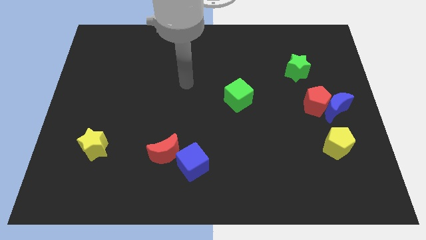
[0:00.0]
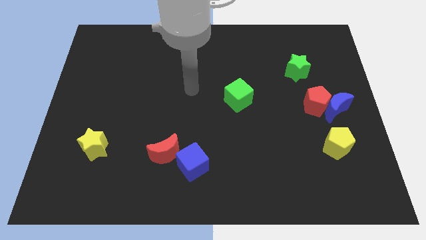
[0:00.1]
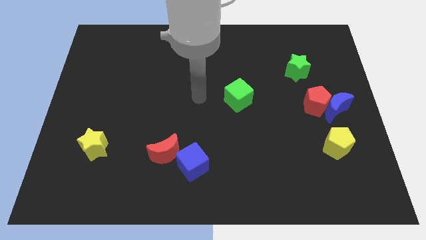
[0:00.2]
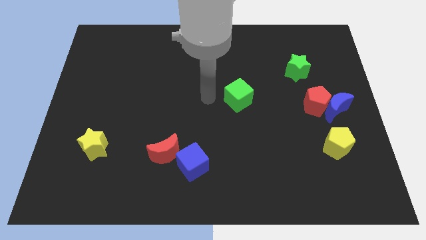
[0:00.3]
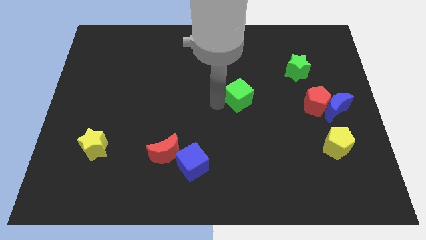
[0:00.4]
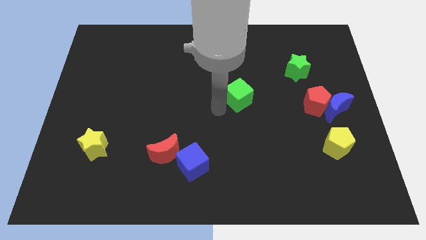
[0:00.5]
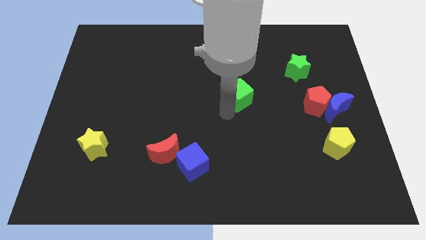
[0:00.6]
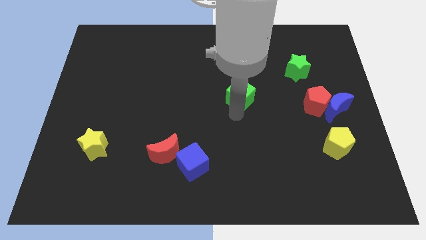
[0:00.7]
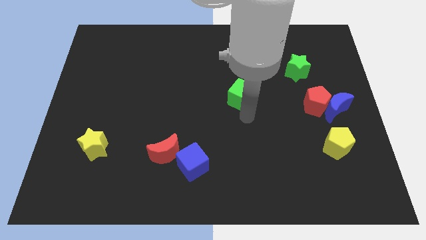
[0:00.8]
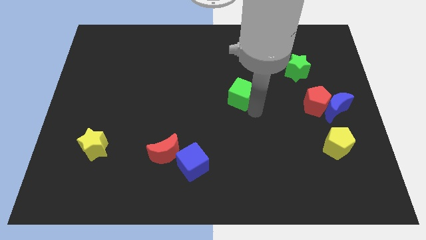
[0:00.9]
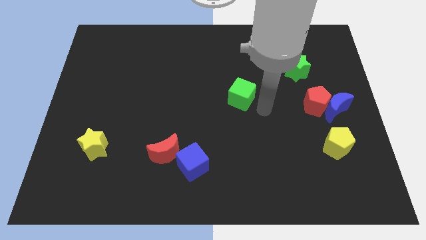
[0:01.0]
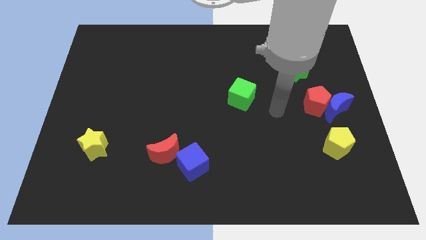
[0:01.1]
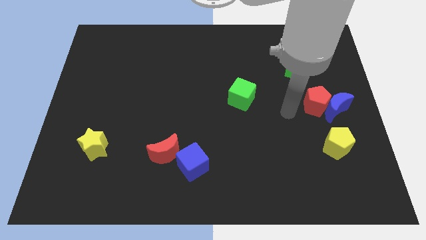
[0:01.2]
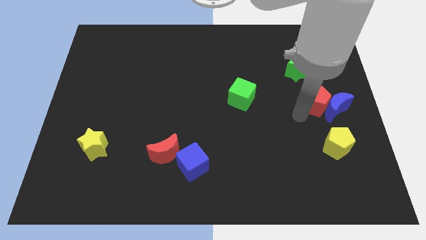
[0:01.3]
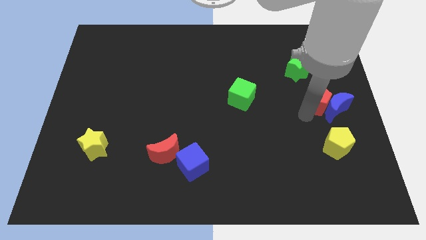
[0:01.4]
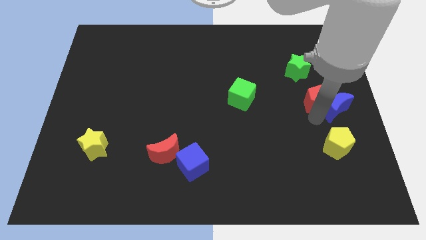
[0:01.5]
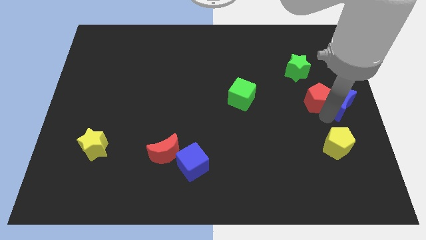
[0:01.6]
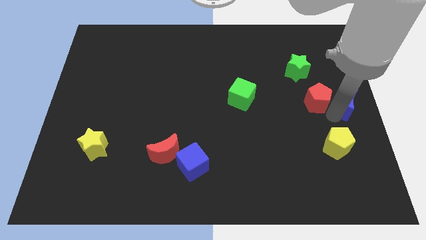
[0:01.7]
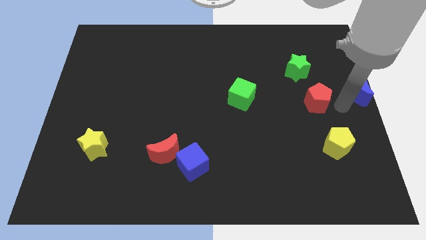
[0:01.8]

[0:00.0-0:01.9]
pull the red pentagon apart from the blue moon

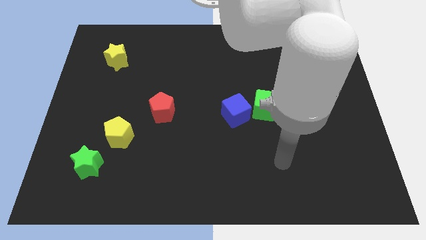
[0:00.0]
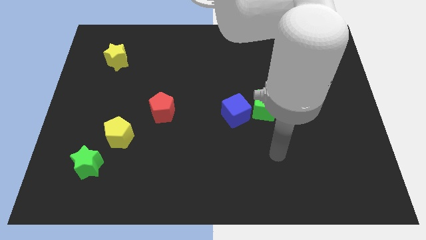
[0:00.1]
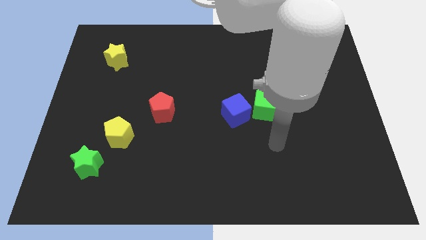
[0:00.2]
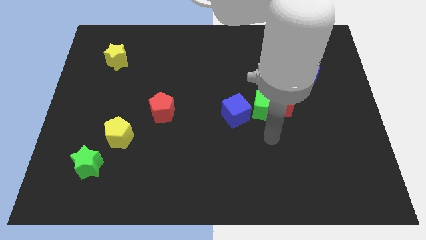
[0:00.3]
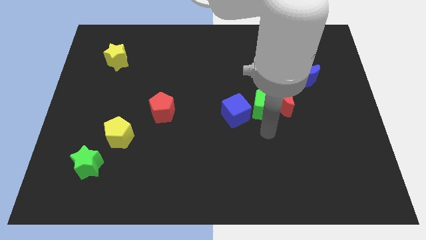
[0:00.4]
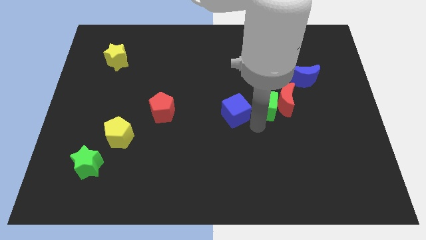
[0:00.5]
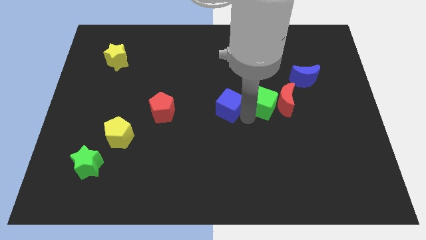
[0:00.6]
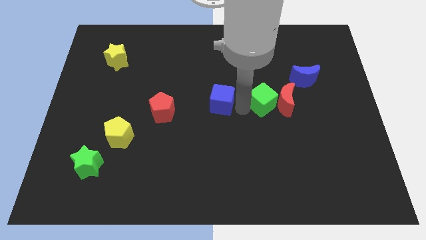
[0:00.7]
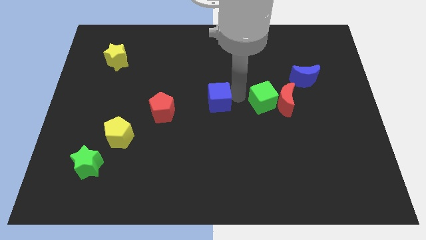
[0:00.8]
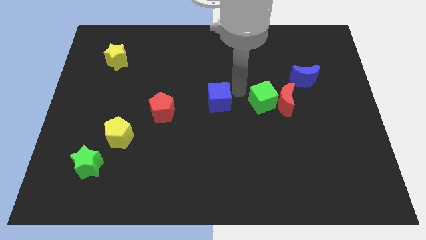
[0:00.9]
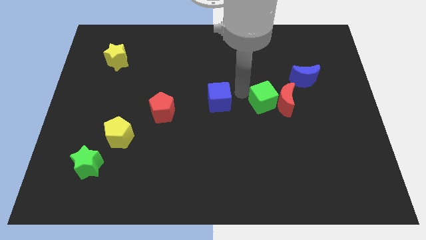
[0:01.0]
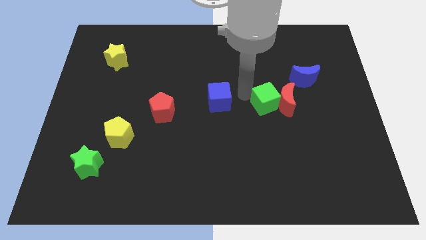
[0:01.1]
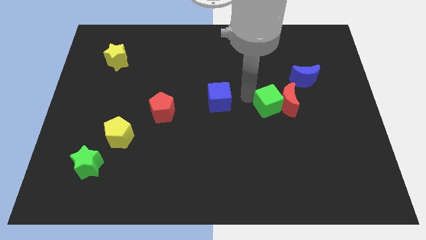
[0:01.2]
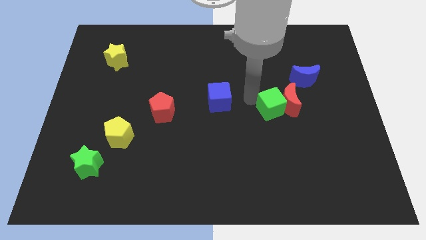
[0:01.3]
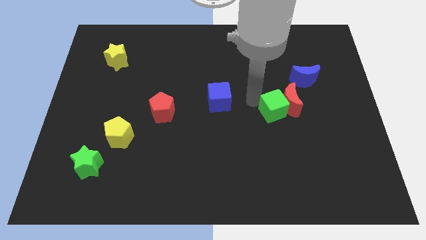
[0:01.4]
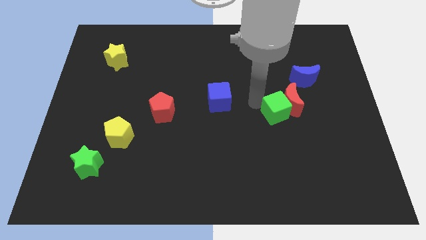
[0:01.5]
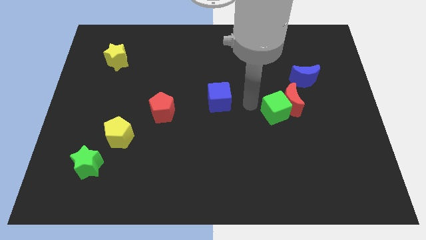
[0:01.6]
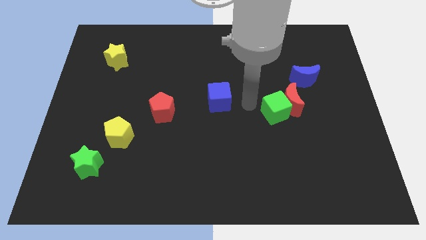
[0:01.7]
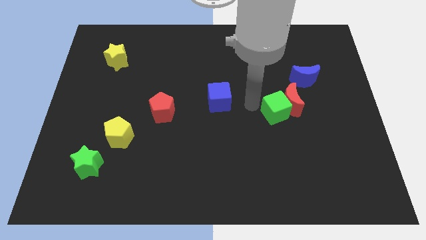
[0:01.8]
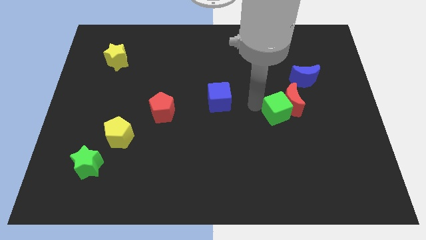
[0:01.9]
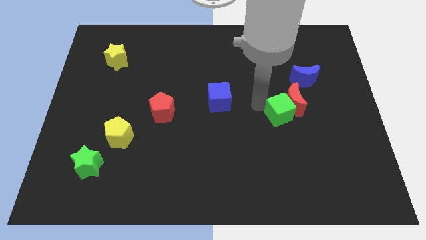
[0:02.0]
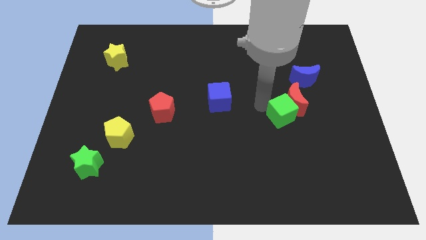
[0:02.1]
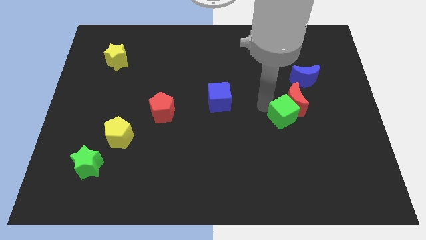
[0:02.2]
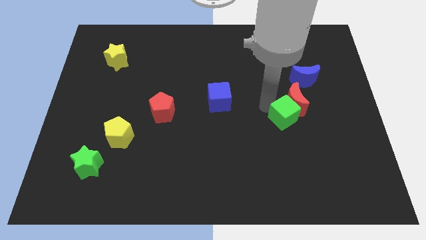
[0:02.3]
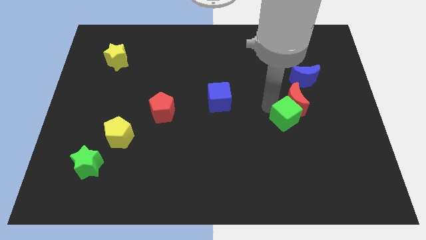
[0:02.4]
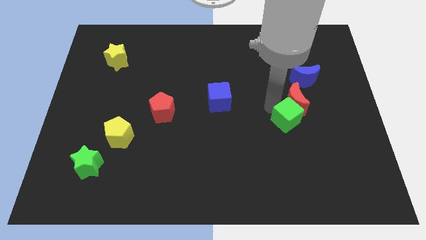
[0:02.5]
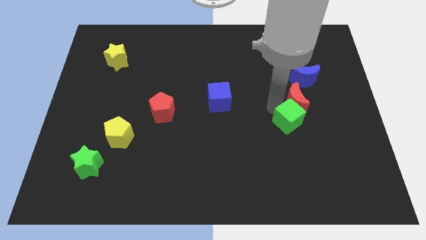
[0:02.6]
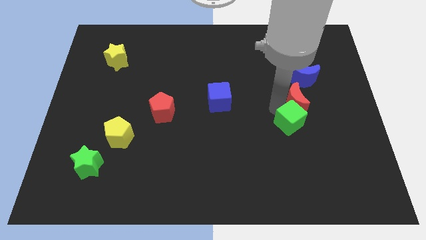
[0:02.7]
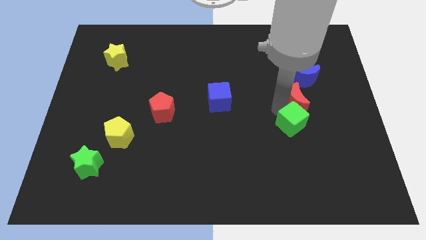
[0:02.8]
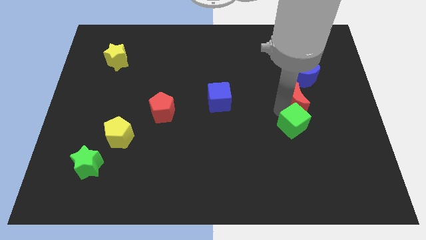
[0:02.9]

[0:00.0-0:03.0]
pull the green cube apart from the red moon and blue cube

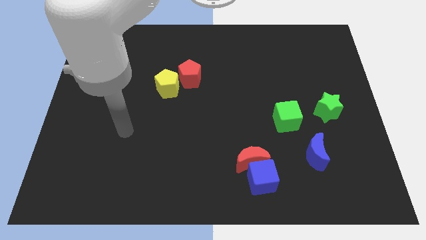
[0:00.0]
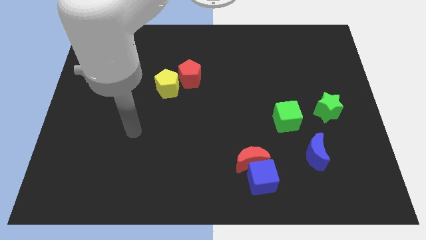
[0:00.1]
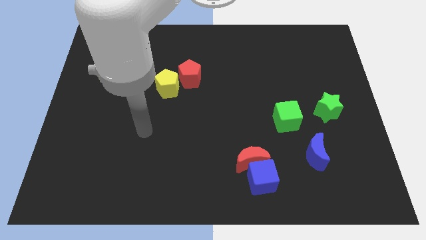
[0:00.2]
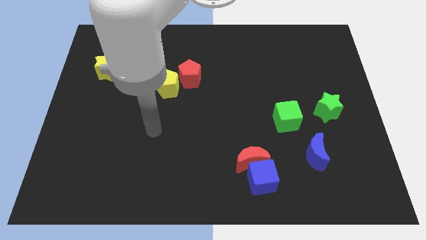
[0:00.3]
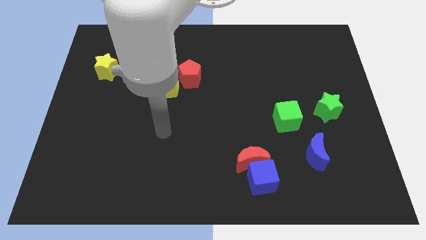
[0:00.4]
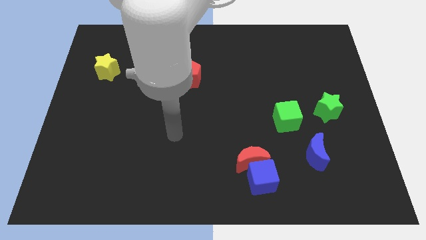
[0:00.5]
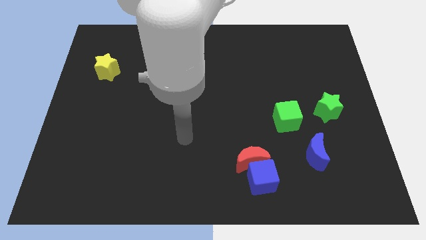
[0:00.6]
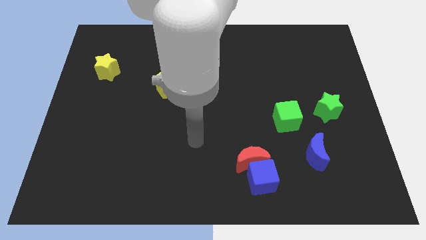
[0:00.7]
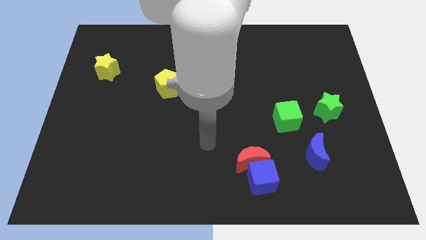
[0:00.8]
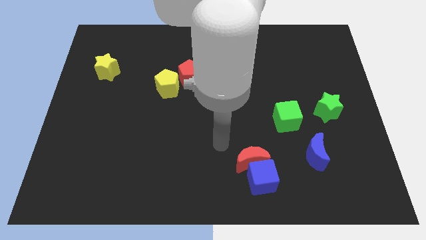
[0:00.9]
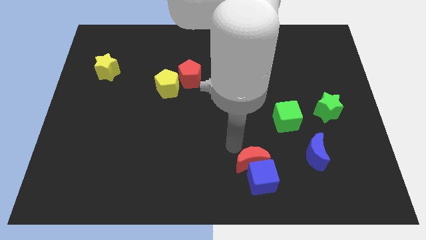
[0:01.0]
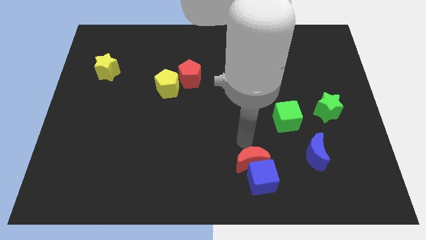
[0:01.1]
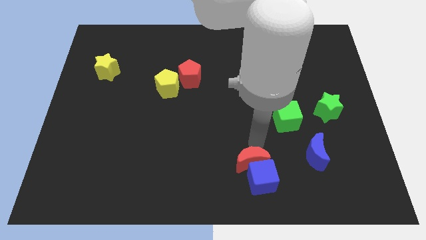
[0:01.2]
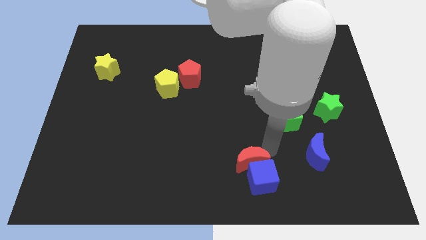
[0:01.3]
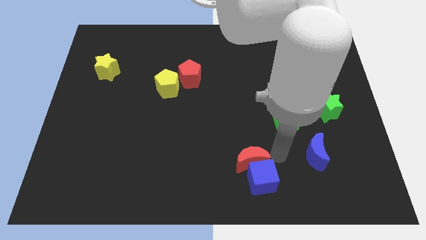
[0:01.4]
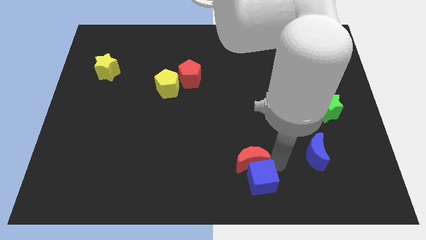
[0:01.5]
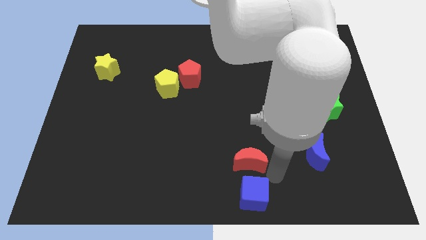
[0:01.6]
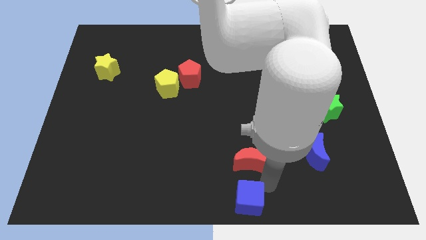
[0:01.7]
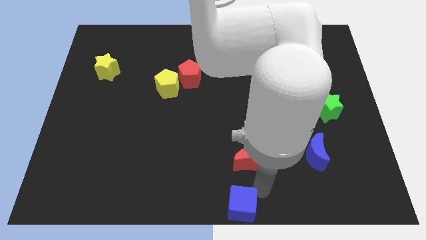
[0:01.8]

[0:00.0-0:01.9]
move the red moon away from the blue cube

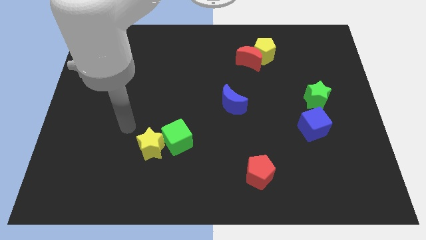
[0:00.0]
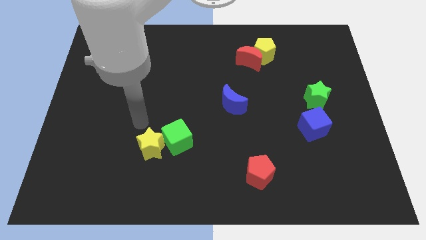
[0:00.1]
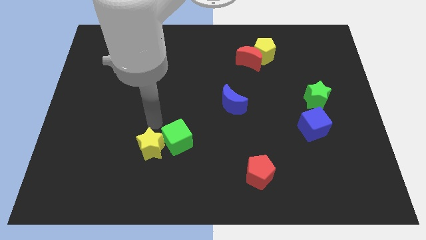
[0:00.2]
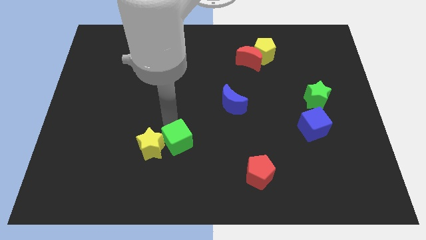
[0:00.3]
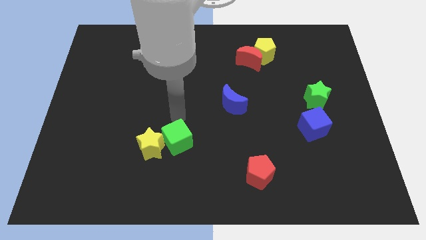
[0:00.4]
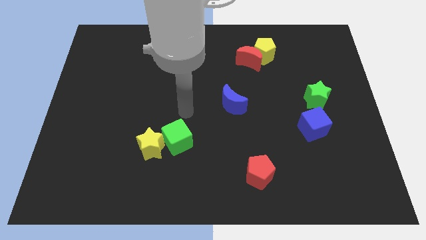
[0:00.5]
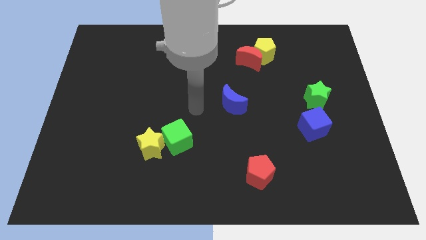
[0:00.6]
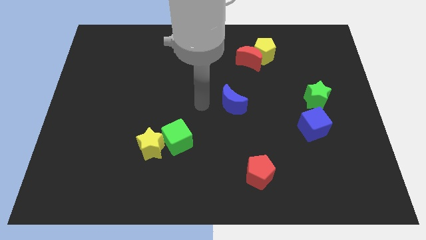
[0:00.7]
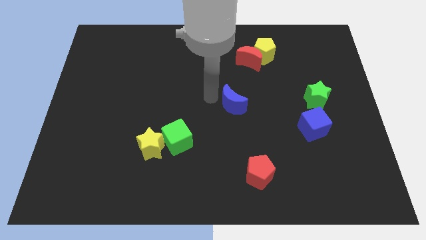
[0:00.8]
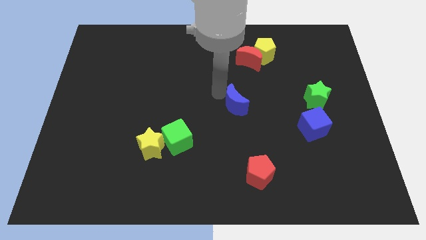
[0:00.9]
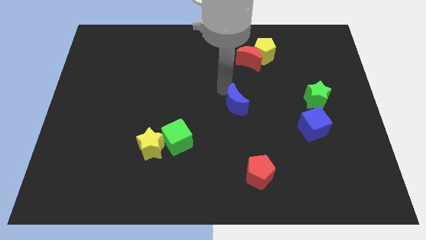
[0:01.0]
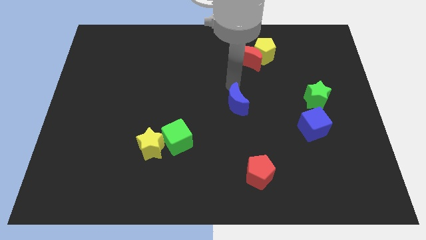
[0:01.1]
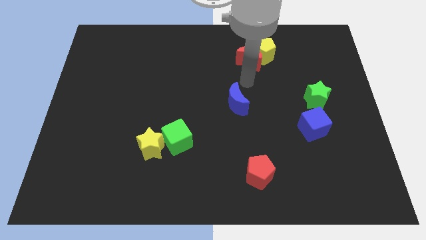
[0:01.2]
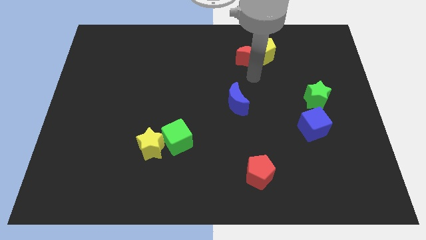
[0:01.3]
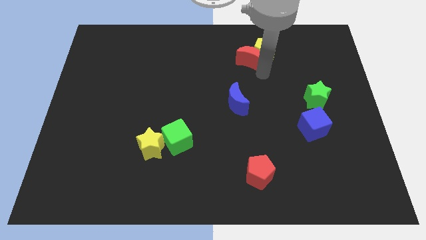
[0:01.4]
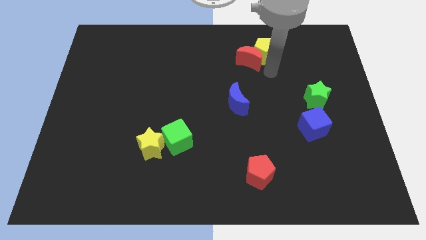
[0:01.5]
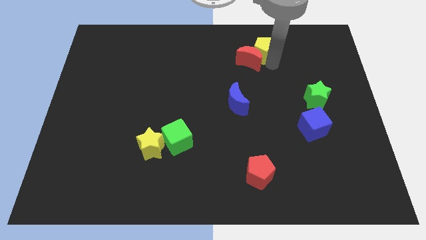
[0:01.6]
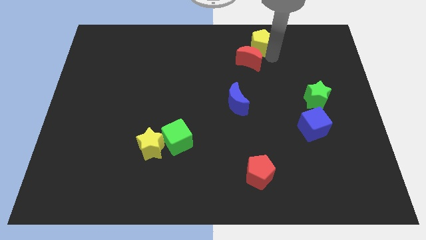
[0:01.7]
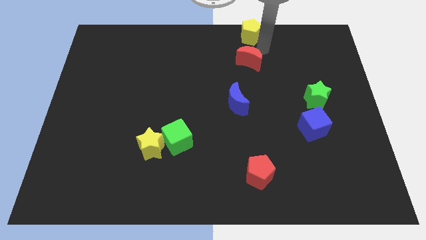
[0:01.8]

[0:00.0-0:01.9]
move the red moon away from the yellow pentagon

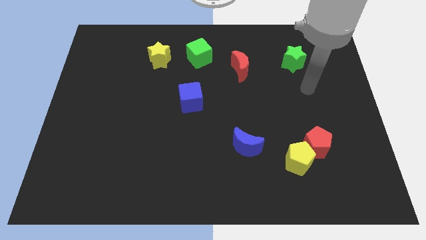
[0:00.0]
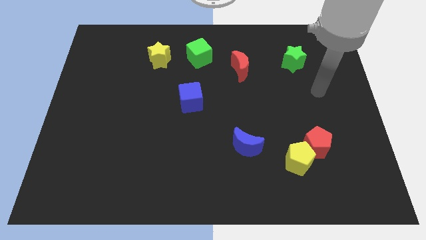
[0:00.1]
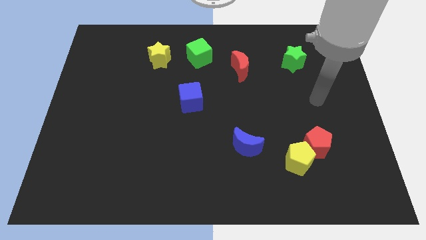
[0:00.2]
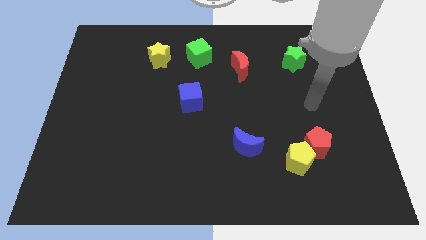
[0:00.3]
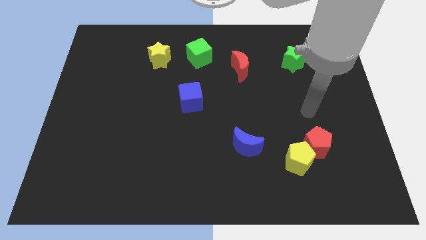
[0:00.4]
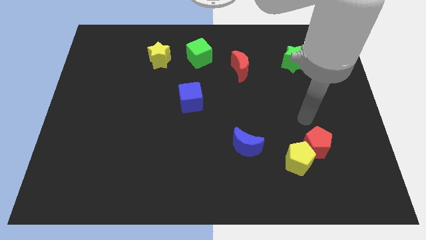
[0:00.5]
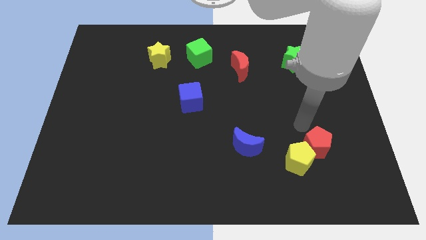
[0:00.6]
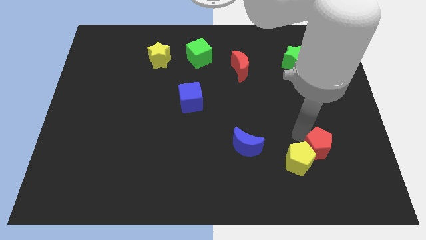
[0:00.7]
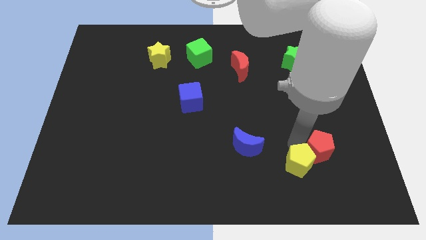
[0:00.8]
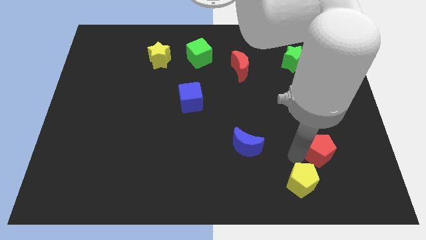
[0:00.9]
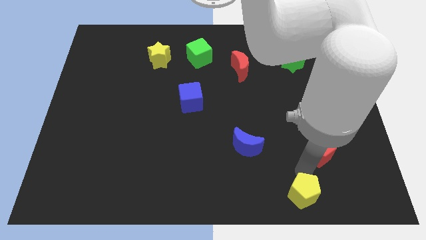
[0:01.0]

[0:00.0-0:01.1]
pull the red pentagon apart from the yellow pentagon
